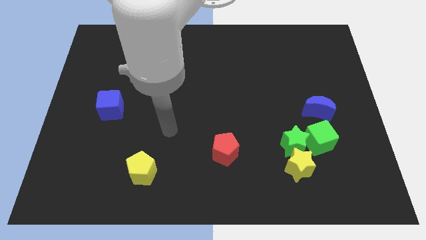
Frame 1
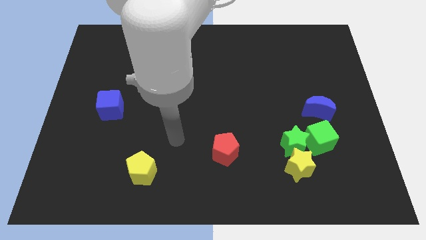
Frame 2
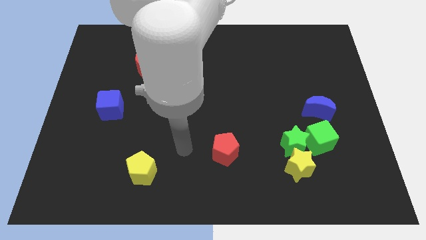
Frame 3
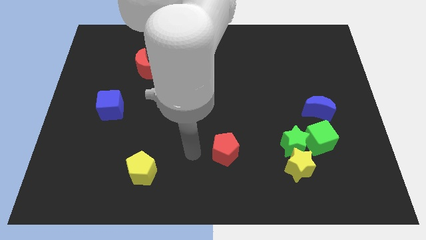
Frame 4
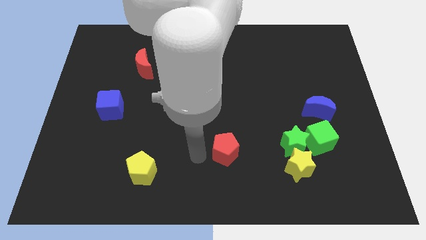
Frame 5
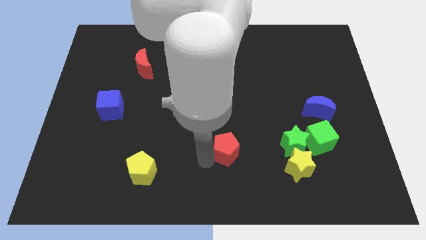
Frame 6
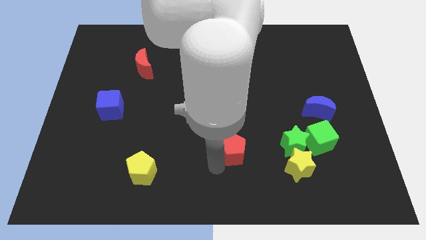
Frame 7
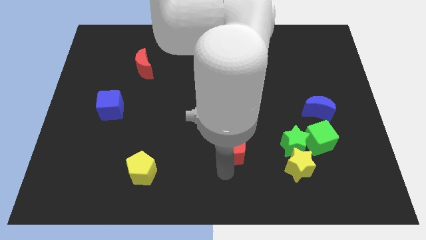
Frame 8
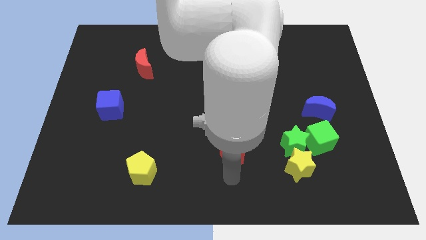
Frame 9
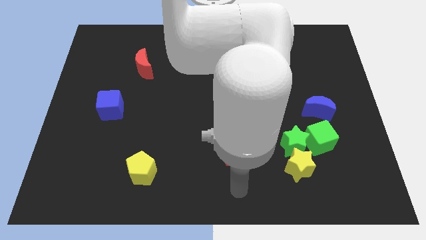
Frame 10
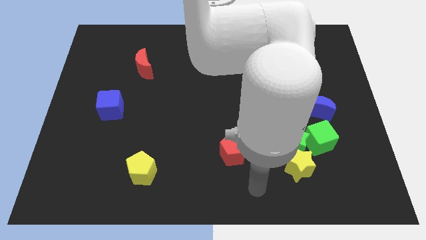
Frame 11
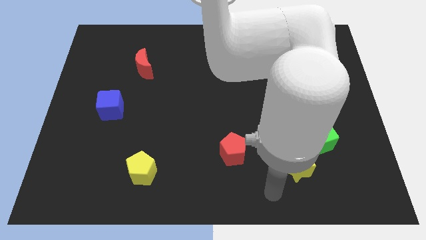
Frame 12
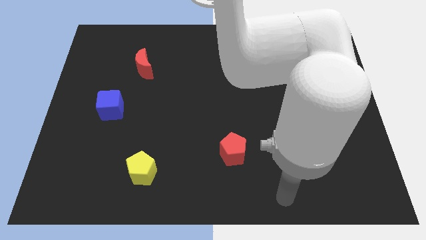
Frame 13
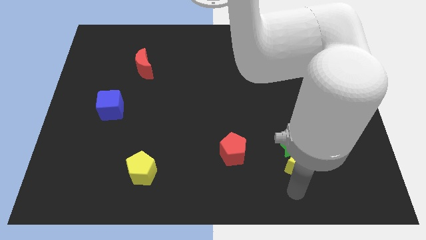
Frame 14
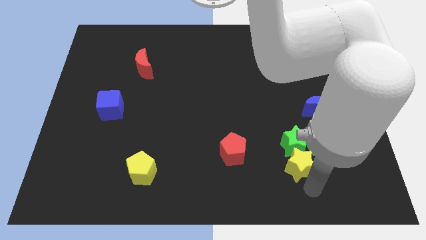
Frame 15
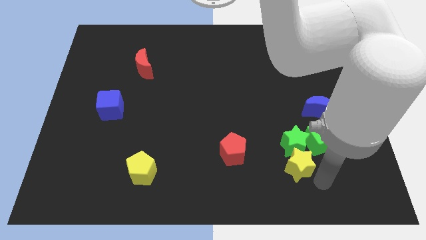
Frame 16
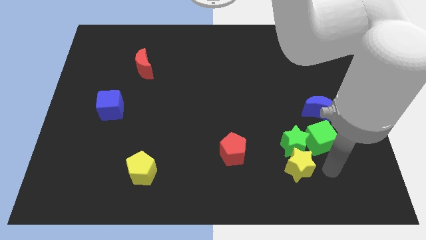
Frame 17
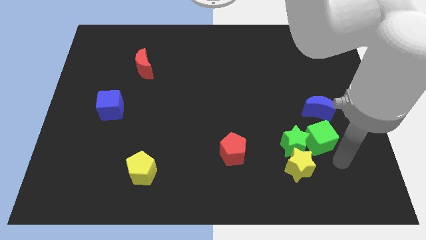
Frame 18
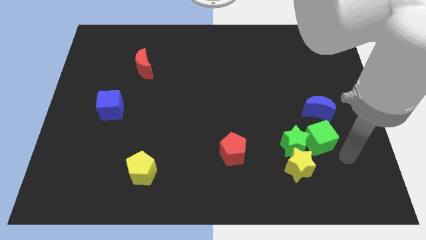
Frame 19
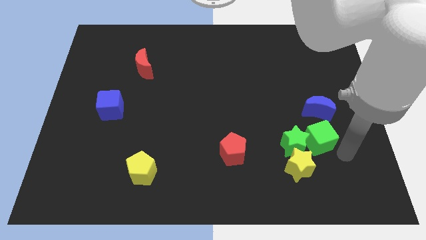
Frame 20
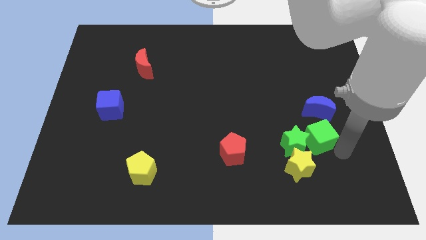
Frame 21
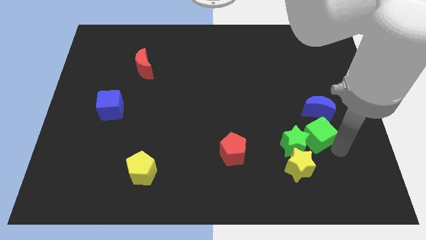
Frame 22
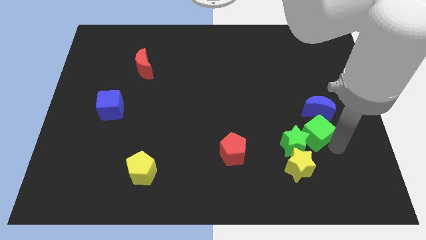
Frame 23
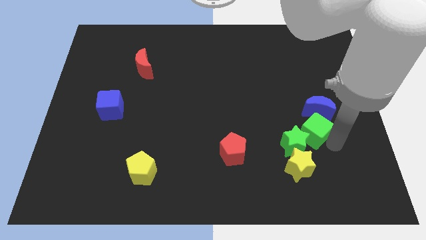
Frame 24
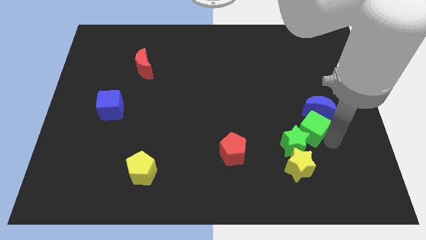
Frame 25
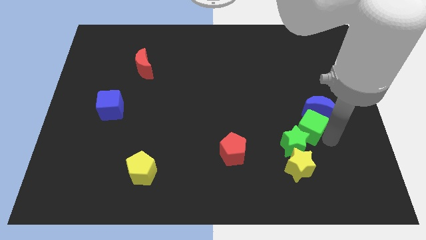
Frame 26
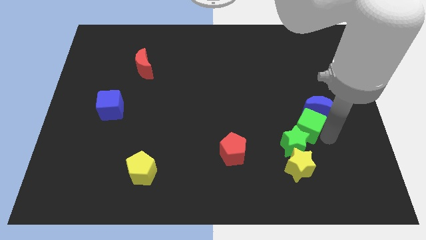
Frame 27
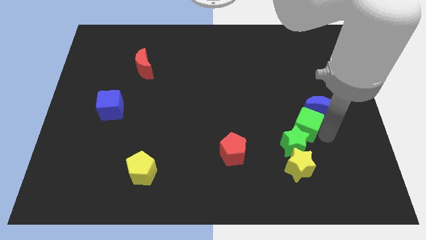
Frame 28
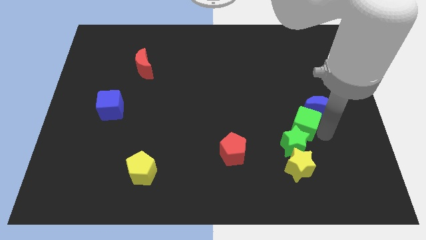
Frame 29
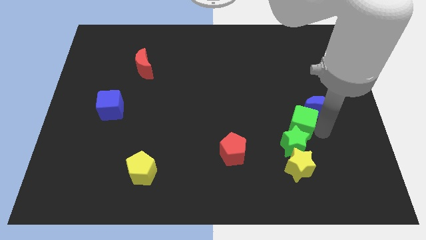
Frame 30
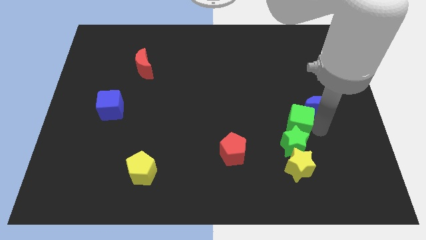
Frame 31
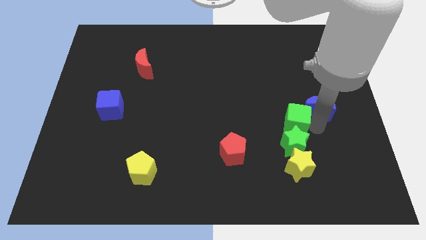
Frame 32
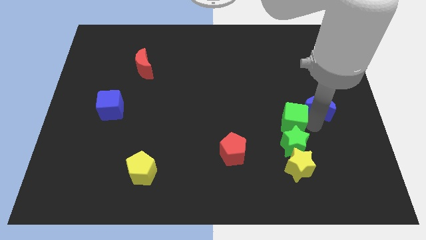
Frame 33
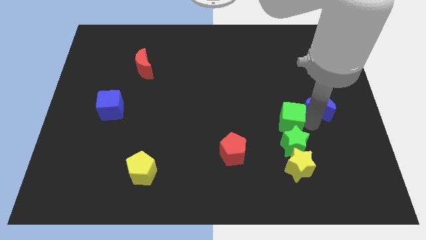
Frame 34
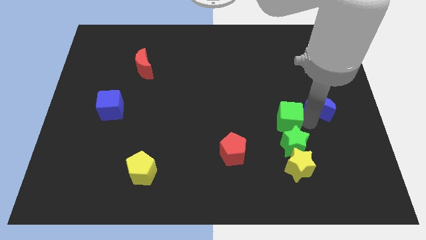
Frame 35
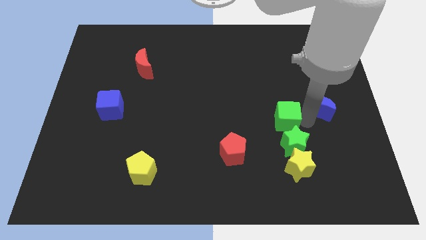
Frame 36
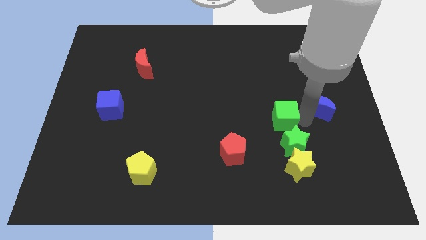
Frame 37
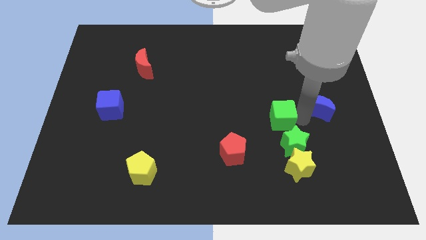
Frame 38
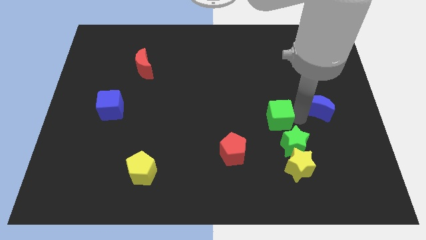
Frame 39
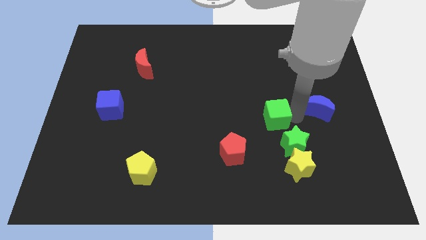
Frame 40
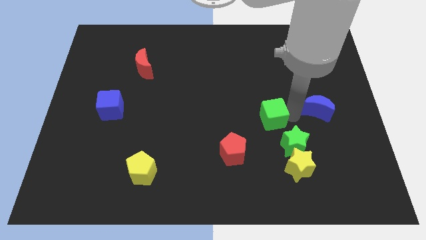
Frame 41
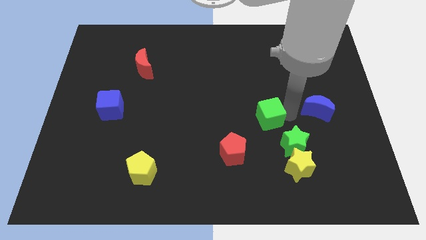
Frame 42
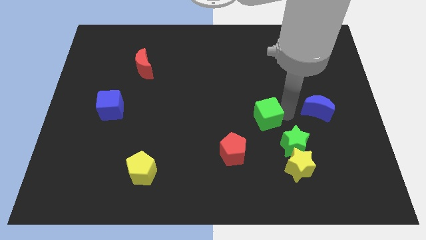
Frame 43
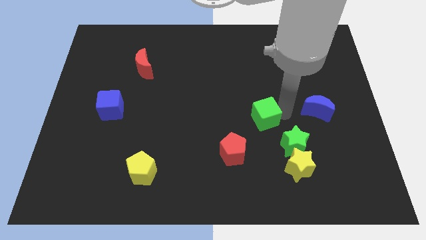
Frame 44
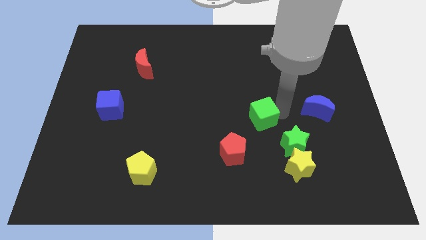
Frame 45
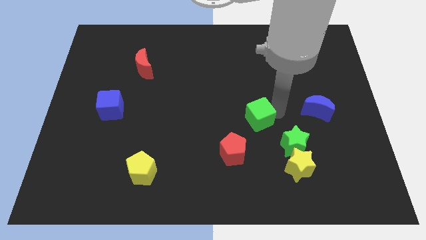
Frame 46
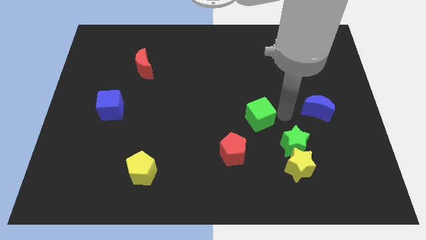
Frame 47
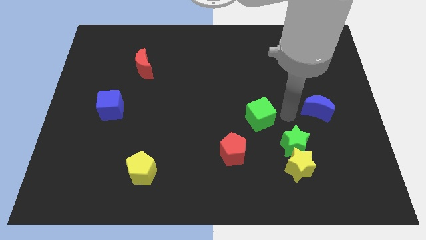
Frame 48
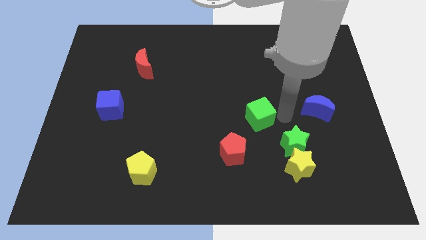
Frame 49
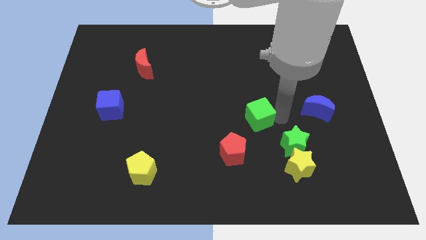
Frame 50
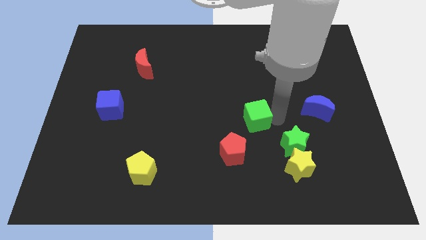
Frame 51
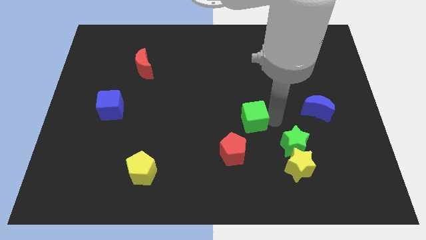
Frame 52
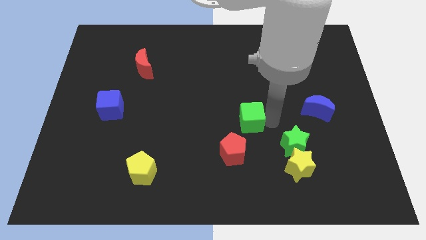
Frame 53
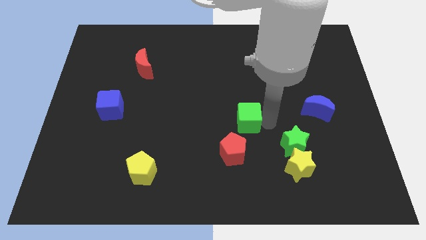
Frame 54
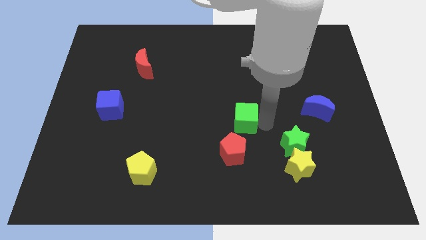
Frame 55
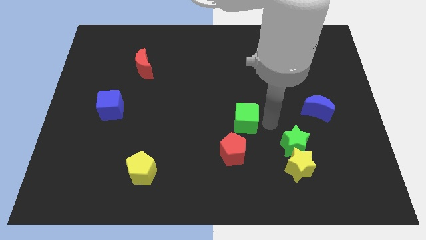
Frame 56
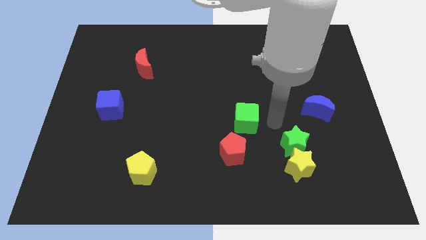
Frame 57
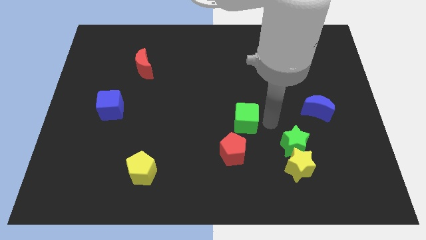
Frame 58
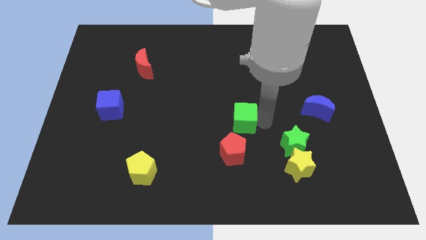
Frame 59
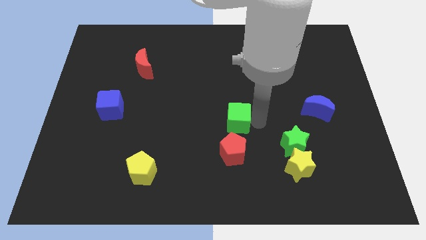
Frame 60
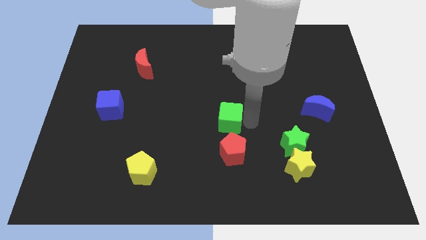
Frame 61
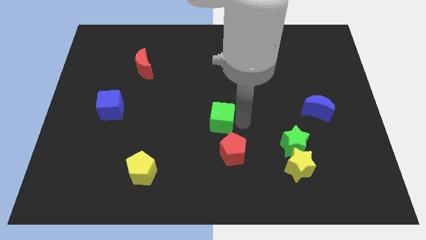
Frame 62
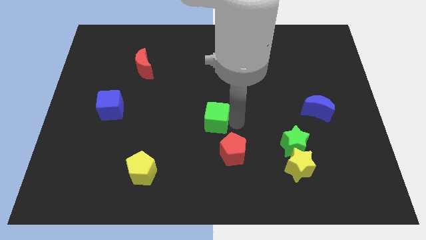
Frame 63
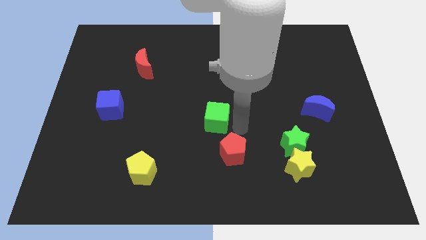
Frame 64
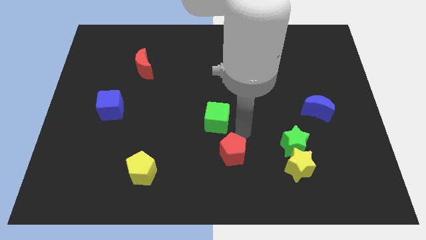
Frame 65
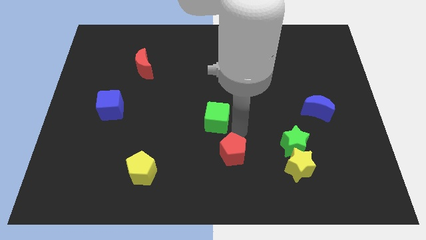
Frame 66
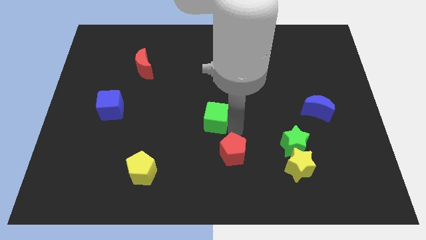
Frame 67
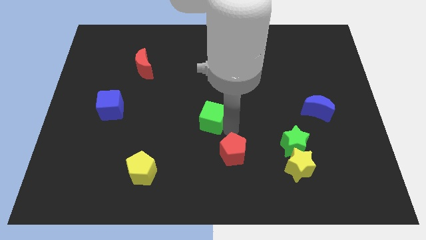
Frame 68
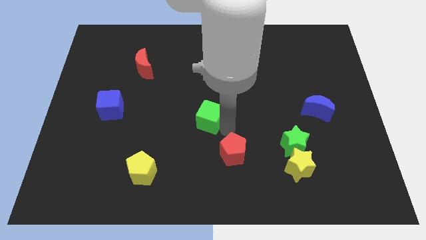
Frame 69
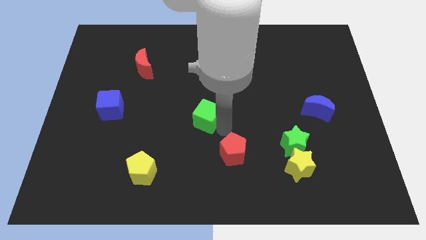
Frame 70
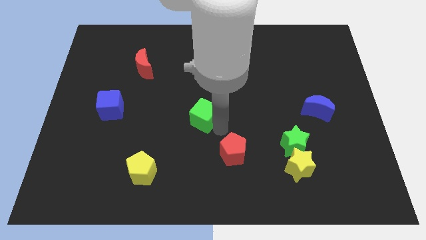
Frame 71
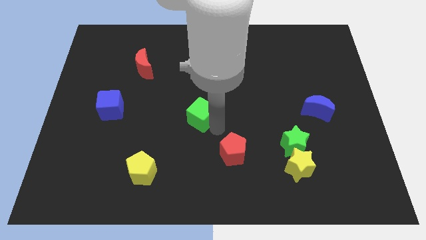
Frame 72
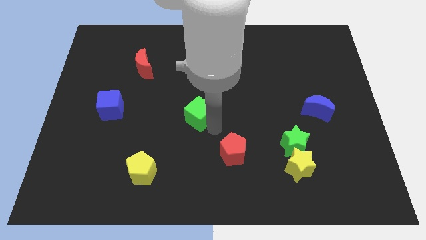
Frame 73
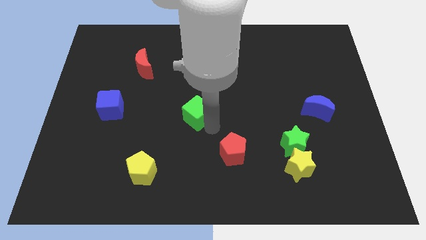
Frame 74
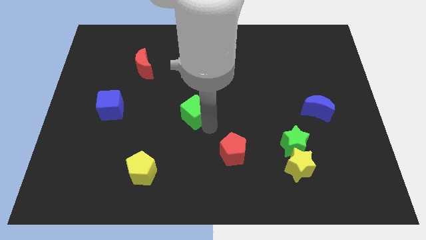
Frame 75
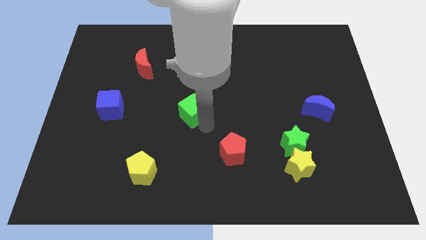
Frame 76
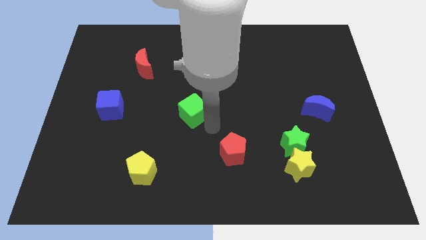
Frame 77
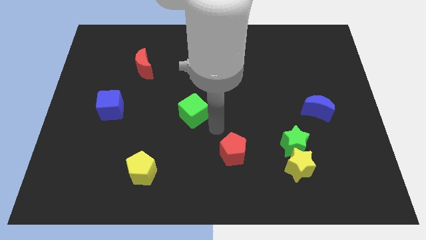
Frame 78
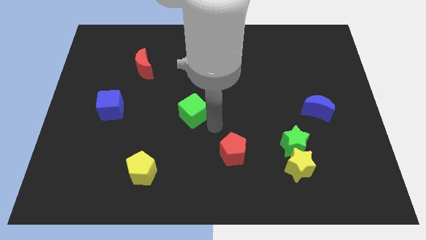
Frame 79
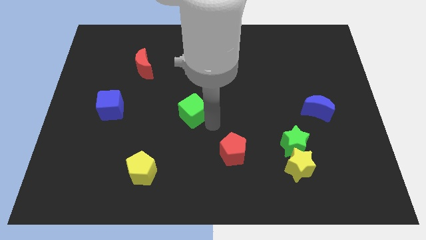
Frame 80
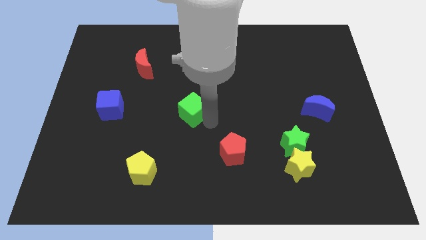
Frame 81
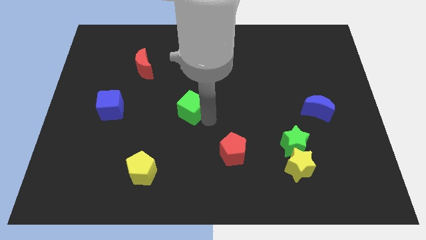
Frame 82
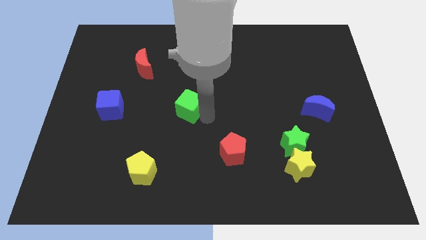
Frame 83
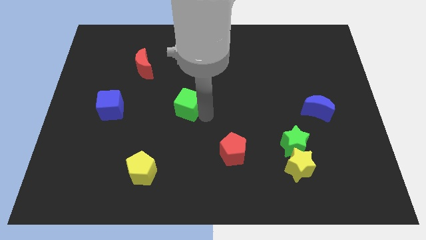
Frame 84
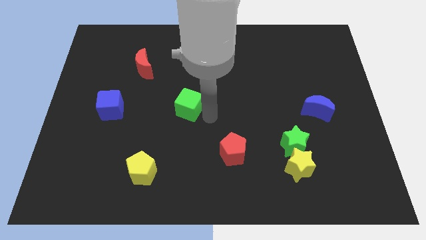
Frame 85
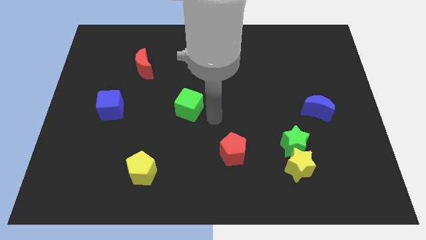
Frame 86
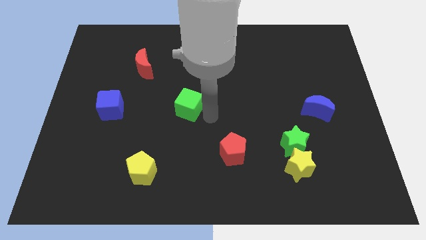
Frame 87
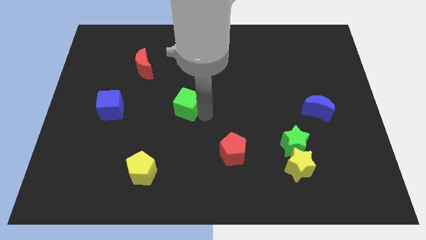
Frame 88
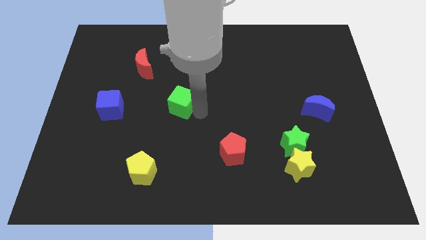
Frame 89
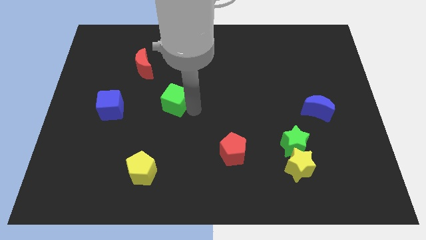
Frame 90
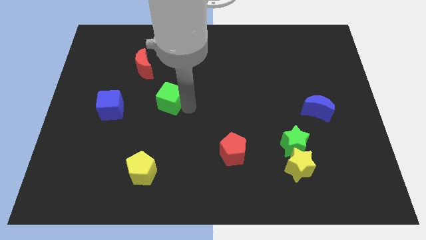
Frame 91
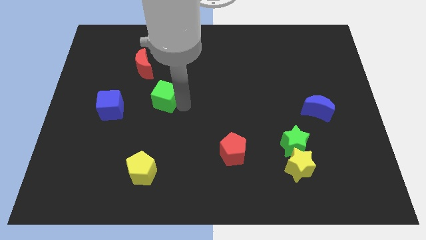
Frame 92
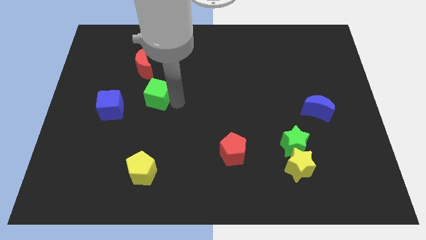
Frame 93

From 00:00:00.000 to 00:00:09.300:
slide the green cube to the bottom side of the red moon
